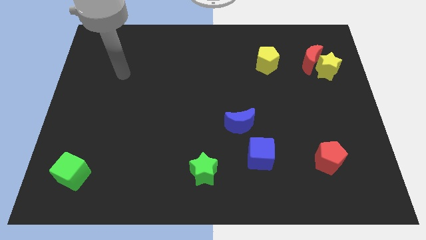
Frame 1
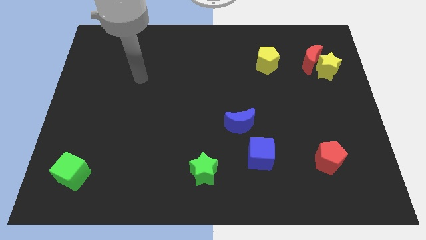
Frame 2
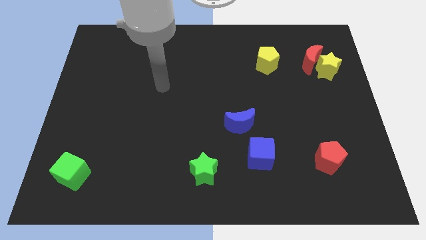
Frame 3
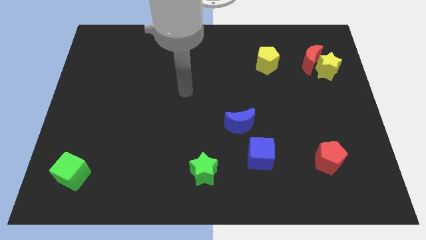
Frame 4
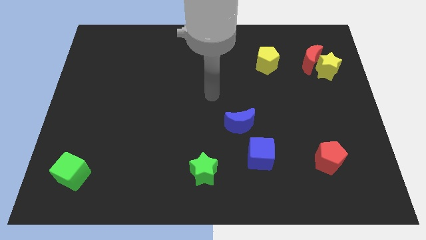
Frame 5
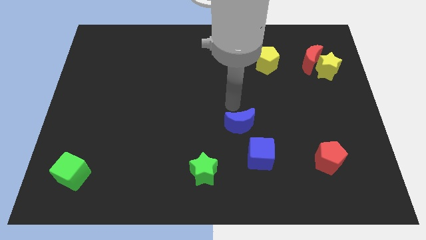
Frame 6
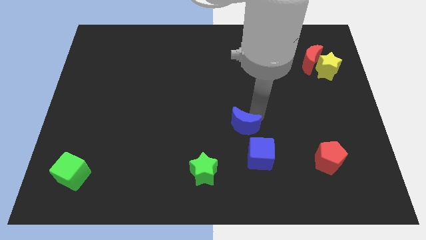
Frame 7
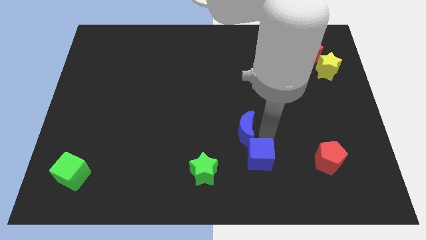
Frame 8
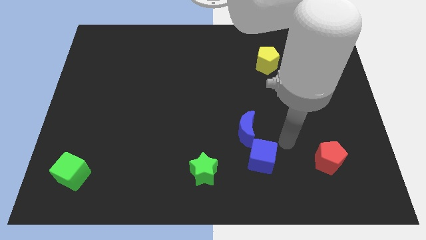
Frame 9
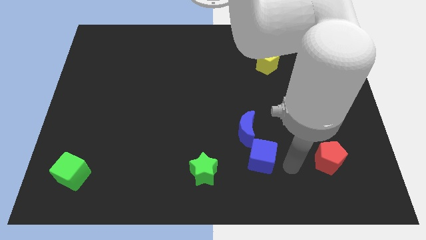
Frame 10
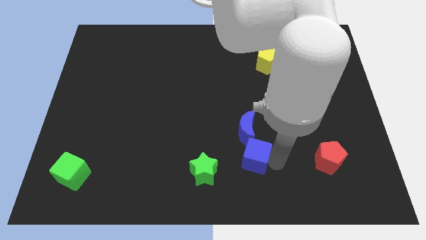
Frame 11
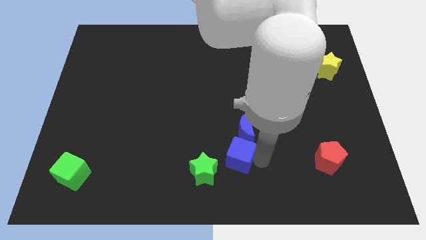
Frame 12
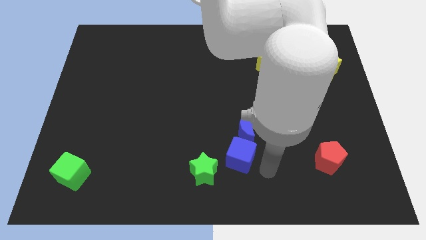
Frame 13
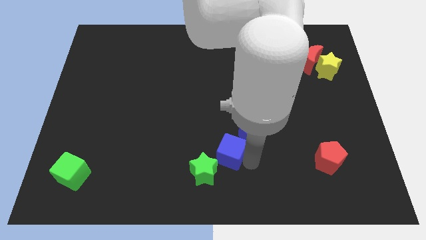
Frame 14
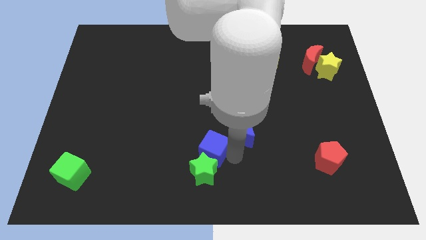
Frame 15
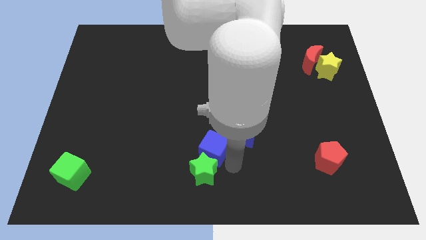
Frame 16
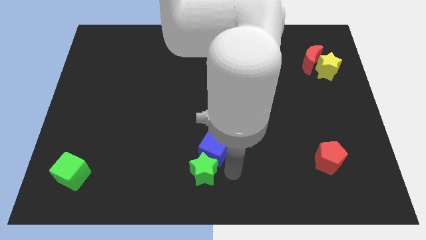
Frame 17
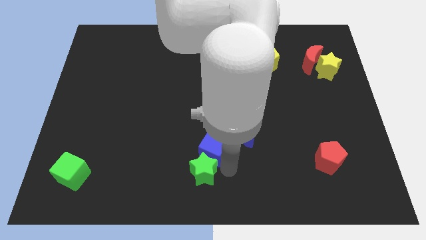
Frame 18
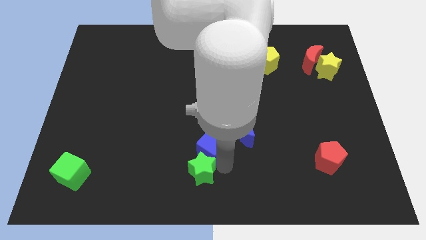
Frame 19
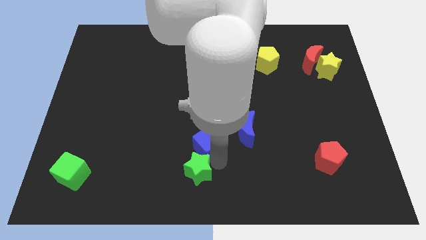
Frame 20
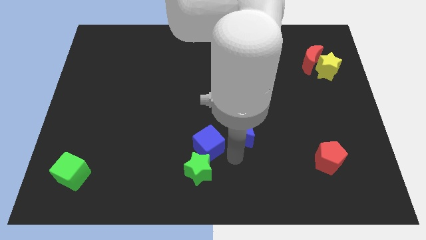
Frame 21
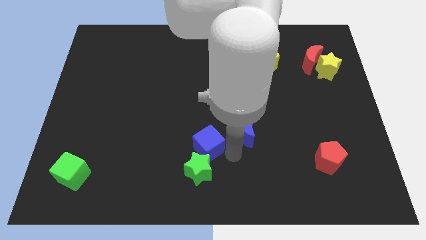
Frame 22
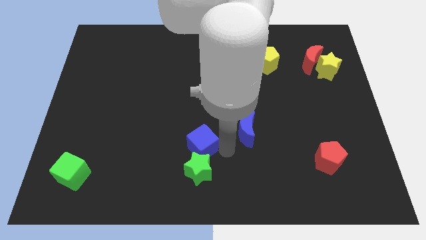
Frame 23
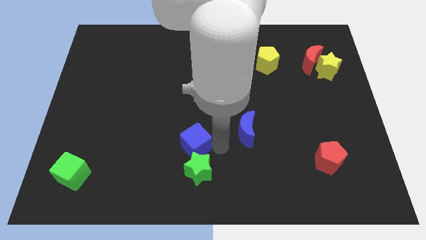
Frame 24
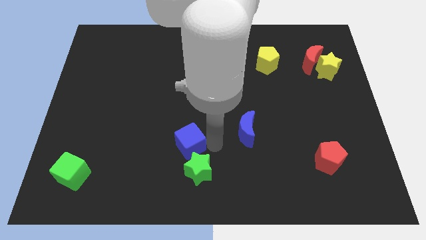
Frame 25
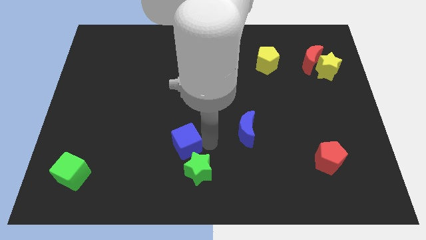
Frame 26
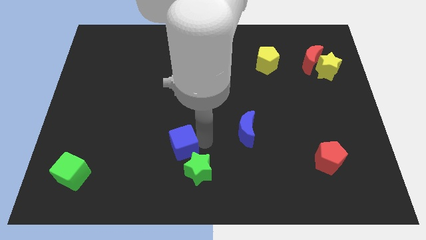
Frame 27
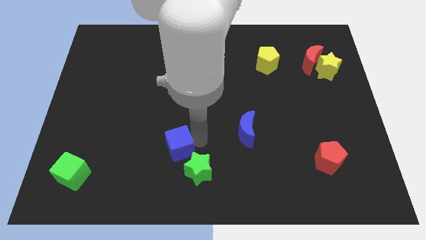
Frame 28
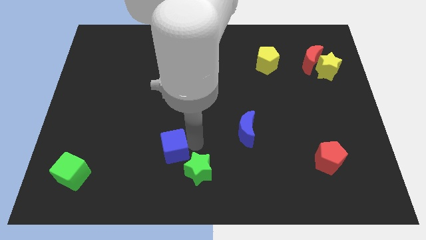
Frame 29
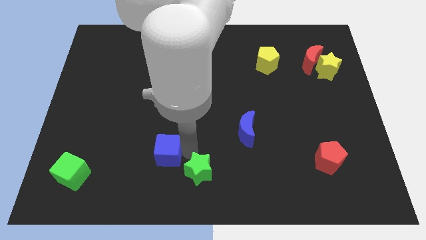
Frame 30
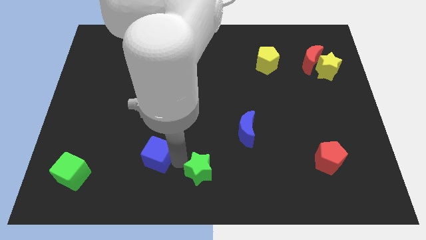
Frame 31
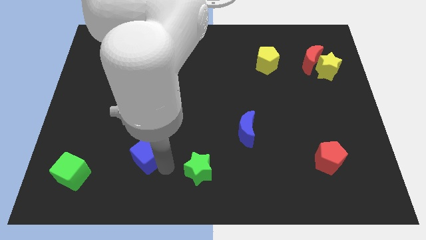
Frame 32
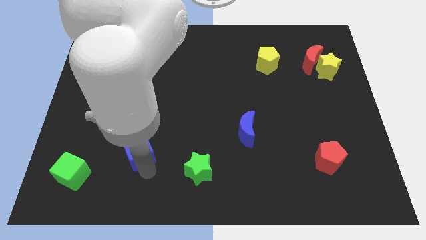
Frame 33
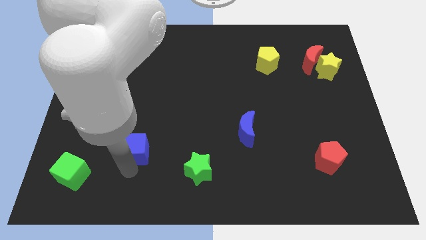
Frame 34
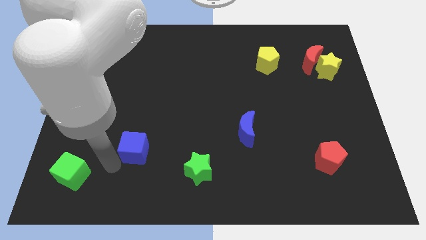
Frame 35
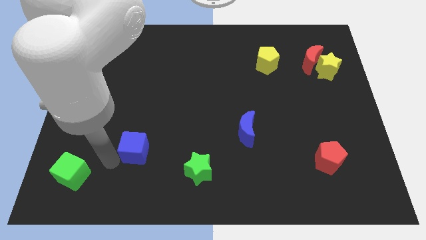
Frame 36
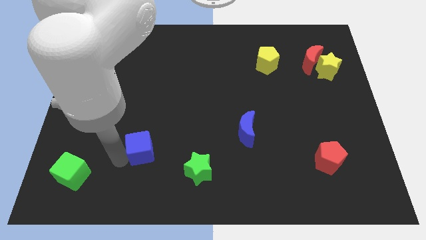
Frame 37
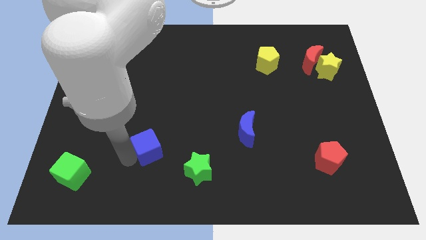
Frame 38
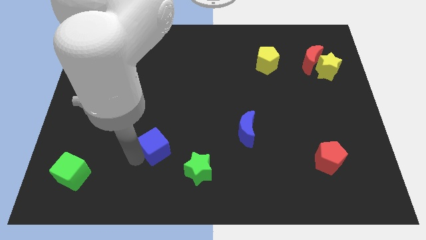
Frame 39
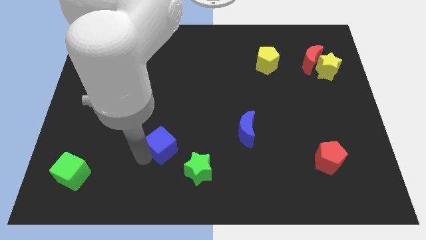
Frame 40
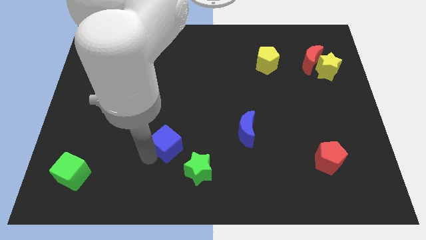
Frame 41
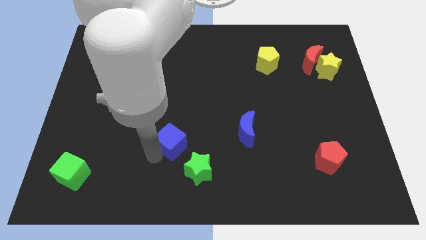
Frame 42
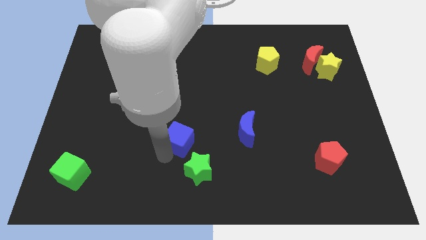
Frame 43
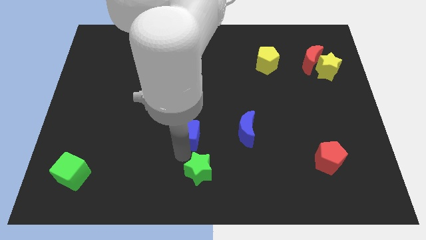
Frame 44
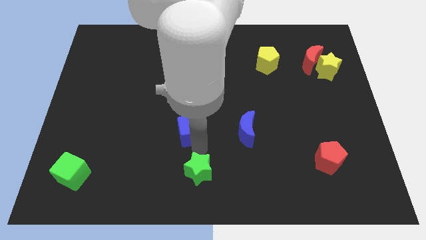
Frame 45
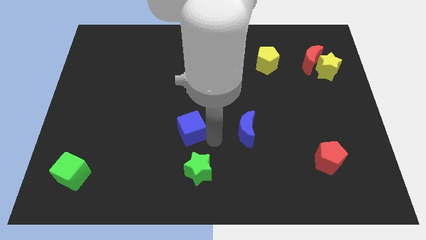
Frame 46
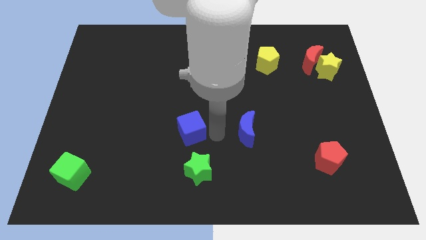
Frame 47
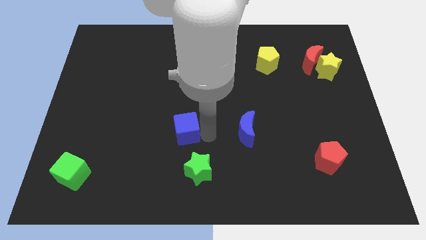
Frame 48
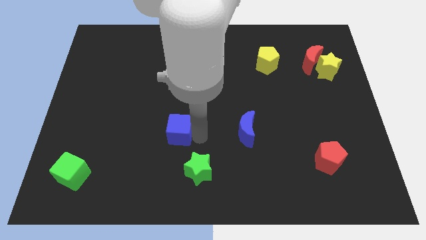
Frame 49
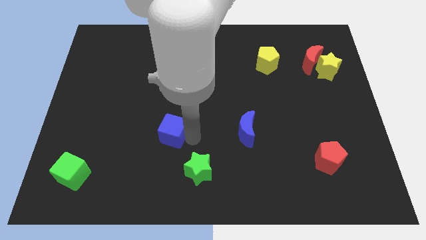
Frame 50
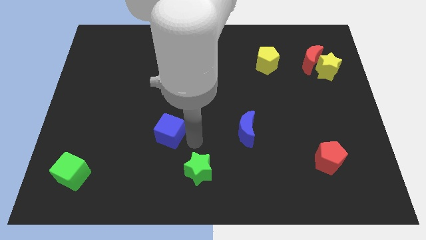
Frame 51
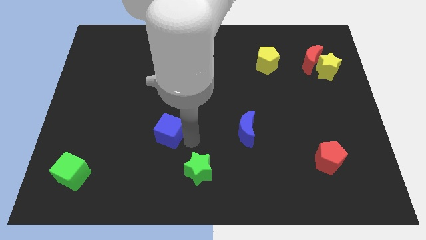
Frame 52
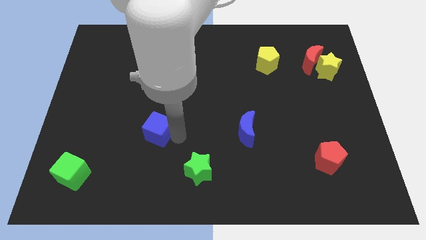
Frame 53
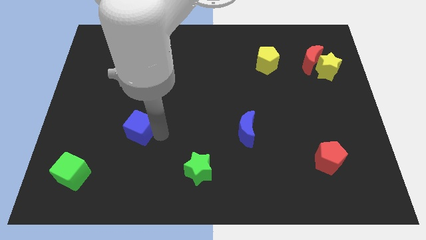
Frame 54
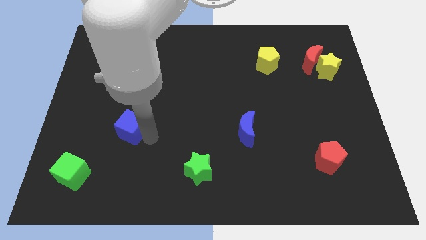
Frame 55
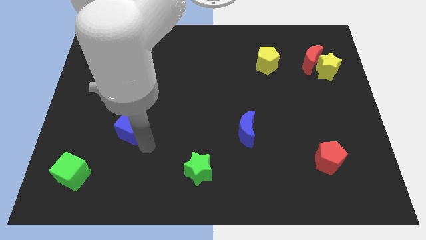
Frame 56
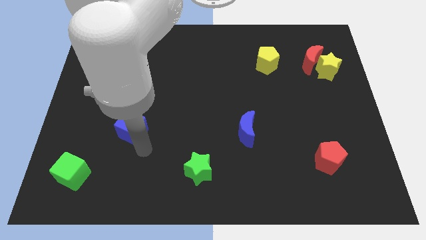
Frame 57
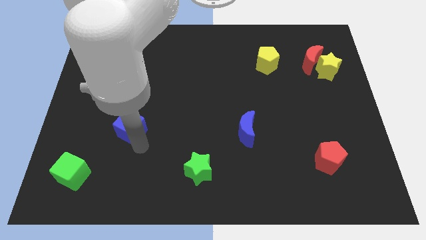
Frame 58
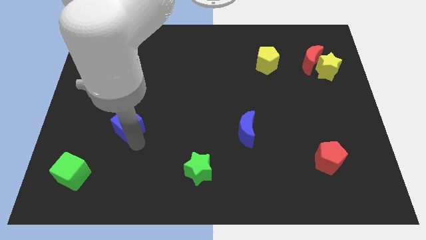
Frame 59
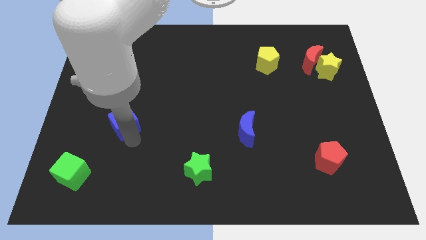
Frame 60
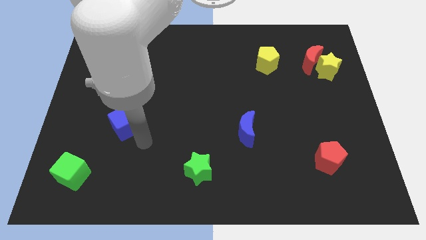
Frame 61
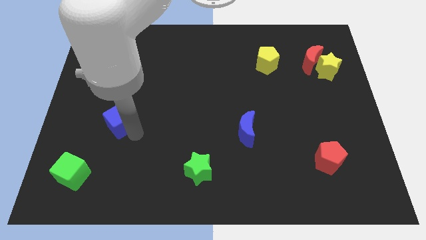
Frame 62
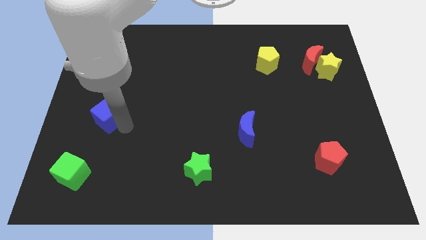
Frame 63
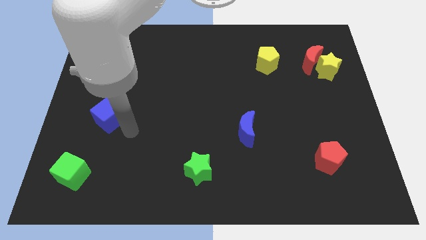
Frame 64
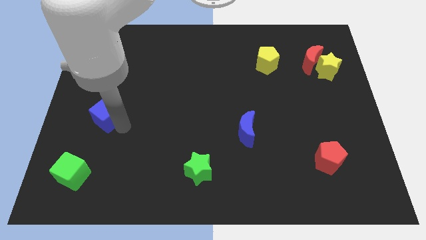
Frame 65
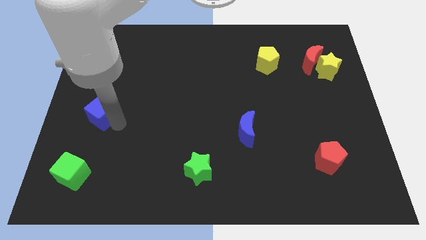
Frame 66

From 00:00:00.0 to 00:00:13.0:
put the blue cube to the center left

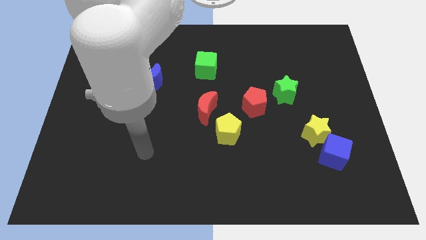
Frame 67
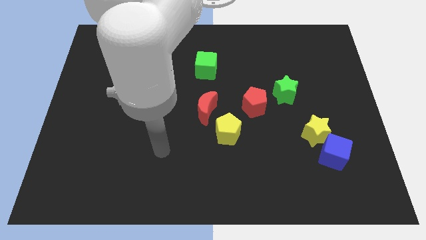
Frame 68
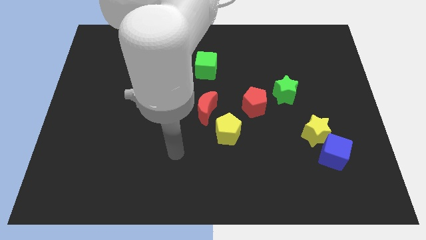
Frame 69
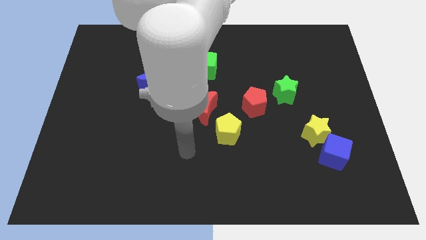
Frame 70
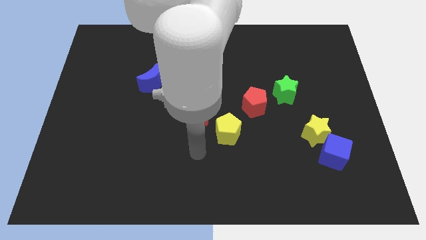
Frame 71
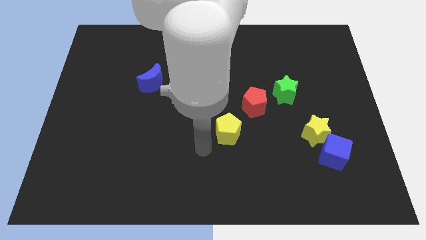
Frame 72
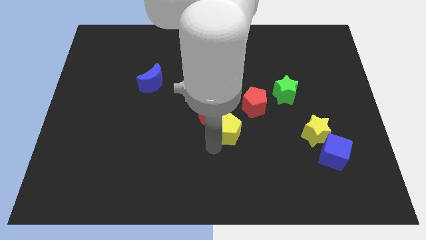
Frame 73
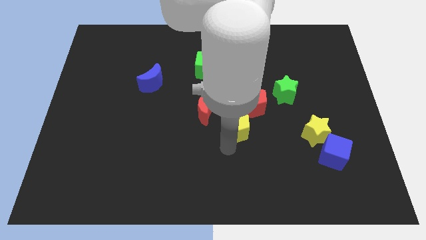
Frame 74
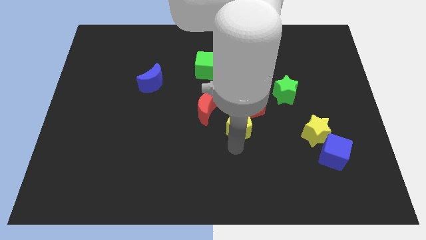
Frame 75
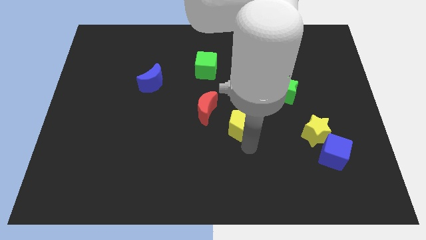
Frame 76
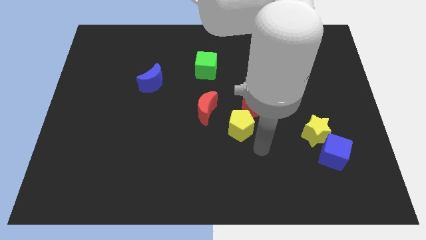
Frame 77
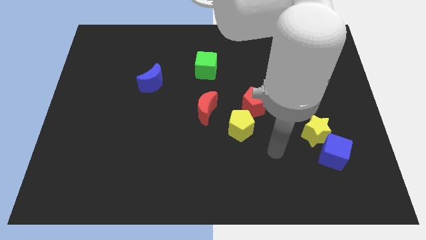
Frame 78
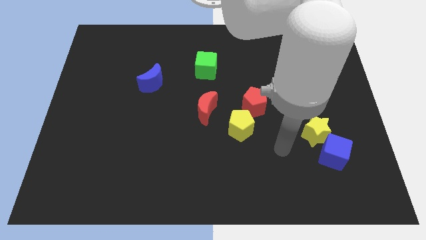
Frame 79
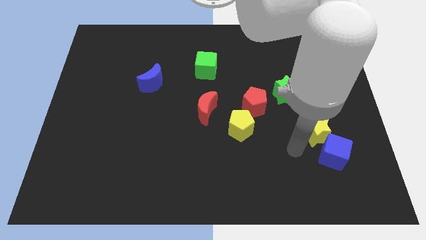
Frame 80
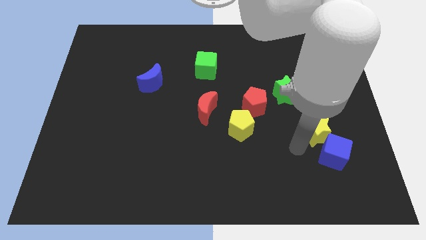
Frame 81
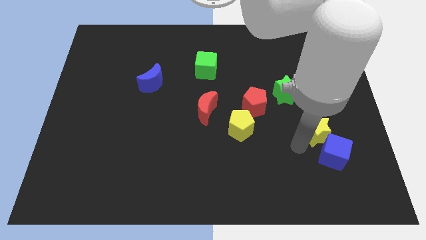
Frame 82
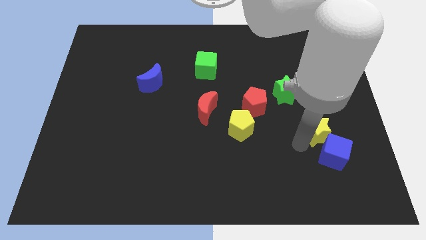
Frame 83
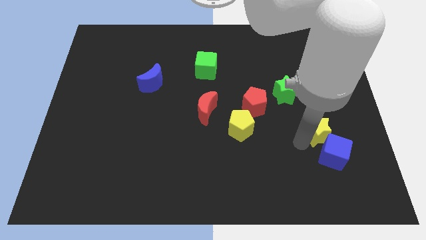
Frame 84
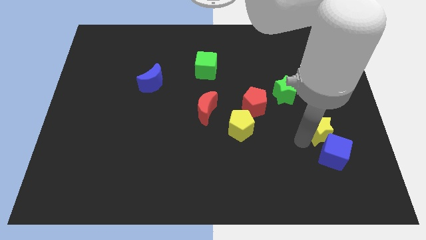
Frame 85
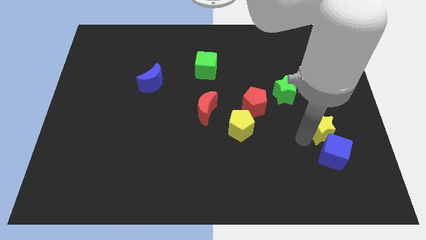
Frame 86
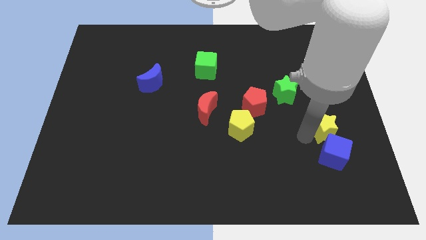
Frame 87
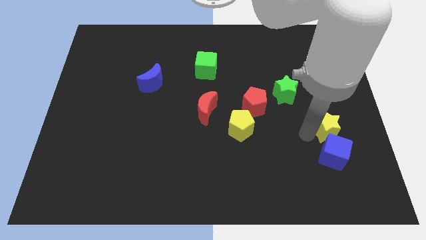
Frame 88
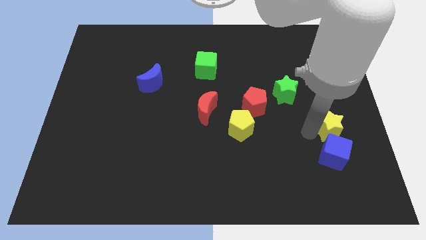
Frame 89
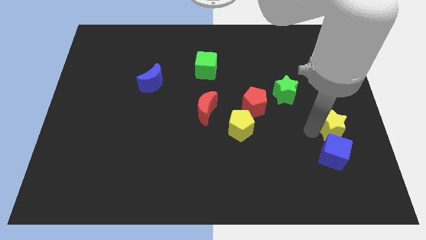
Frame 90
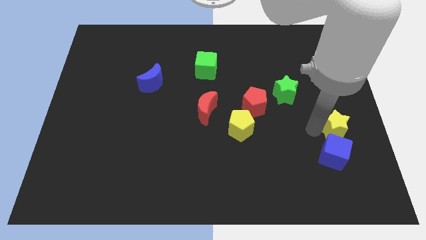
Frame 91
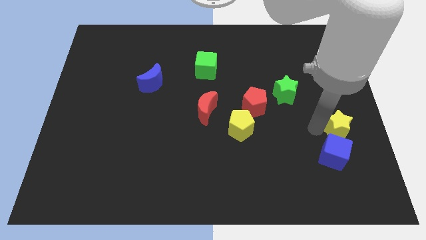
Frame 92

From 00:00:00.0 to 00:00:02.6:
put the yellow star to the right side of the board
